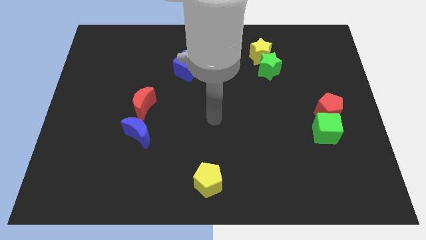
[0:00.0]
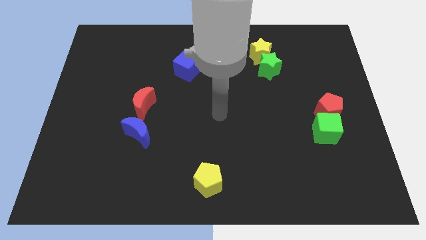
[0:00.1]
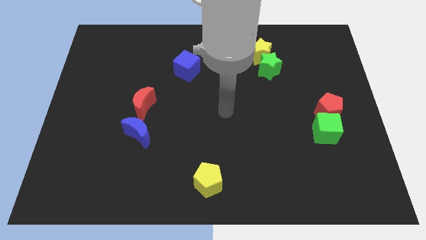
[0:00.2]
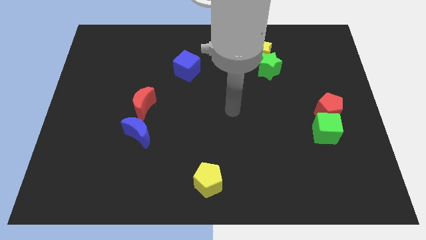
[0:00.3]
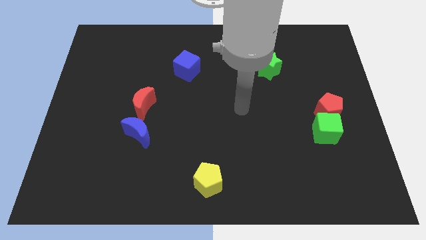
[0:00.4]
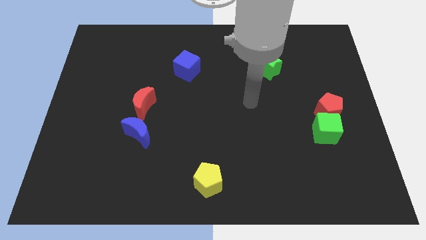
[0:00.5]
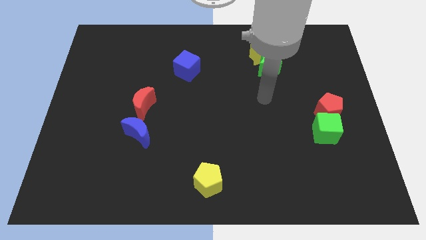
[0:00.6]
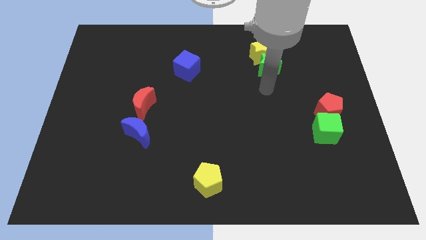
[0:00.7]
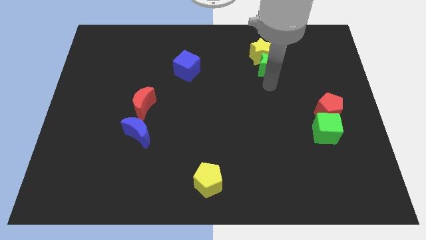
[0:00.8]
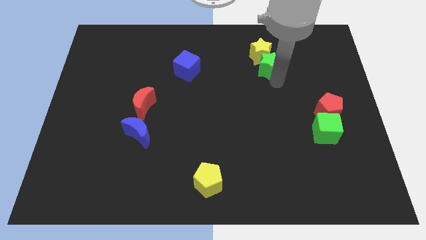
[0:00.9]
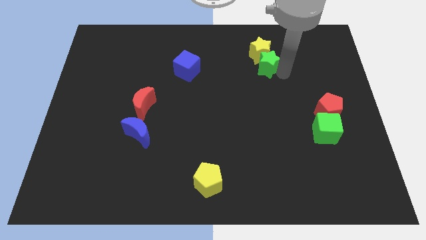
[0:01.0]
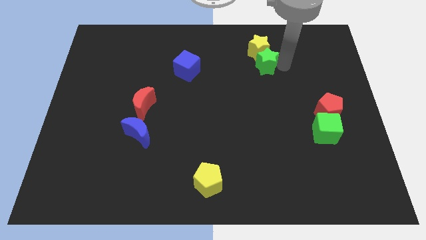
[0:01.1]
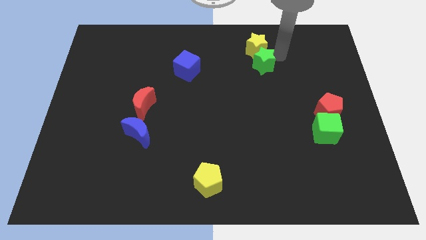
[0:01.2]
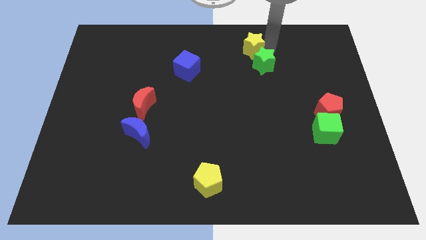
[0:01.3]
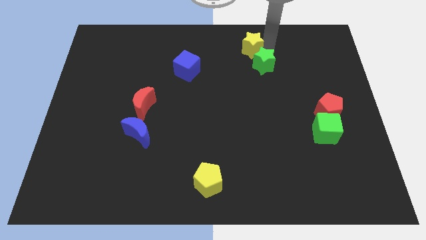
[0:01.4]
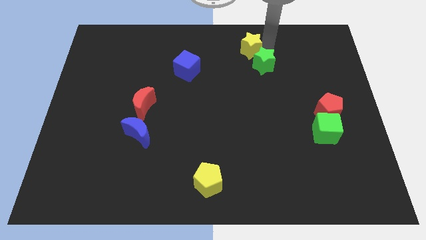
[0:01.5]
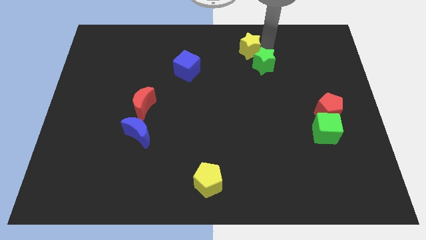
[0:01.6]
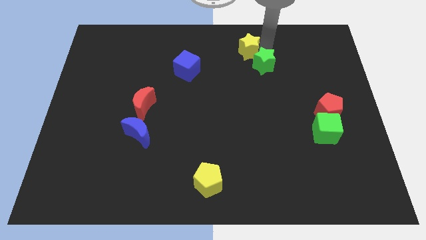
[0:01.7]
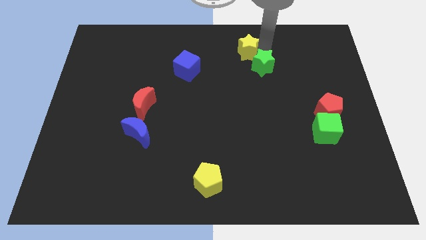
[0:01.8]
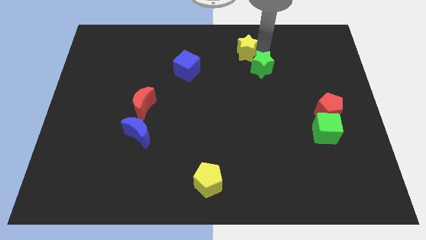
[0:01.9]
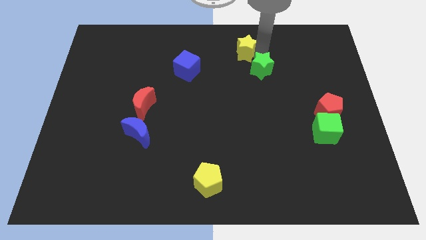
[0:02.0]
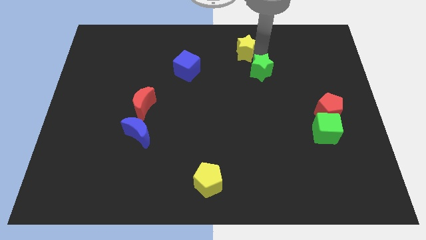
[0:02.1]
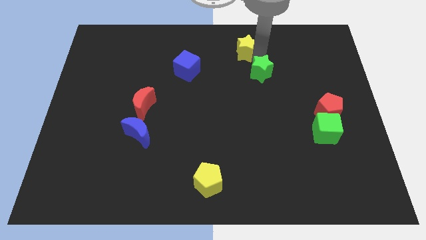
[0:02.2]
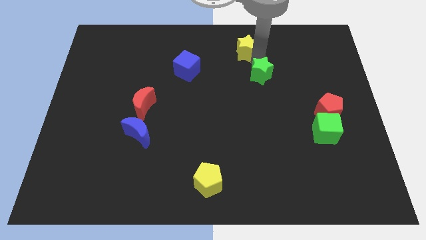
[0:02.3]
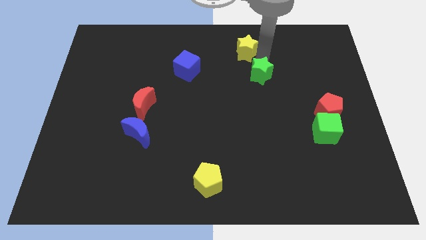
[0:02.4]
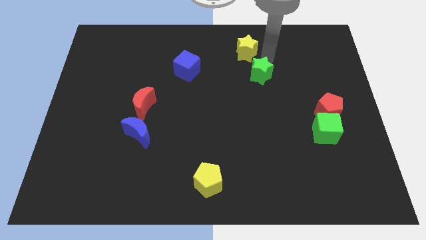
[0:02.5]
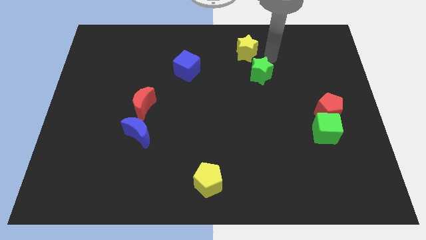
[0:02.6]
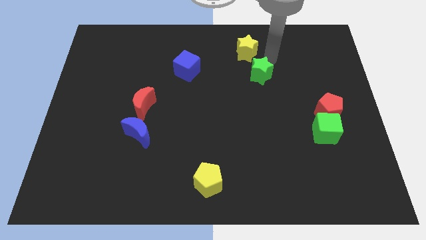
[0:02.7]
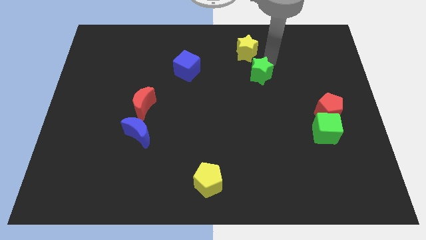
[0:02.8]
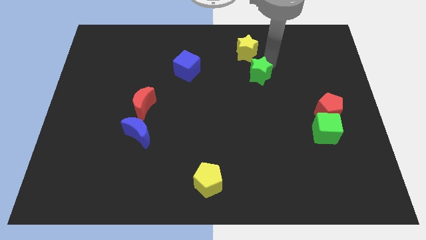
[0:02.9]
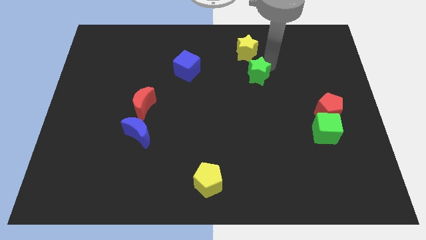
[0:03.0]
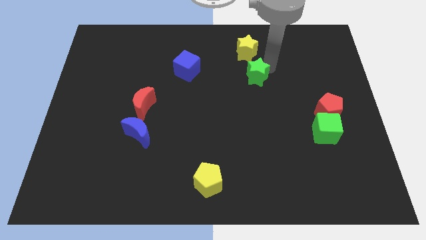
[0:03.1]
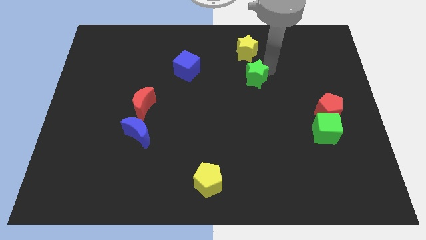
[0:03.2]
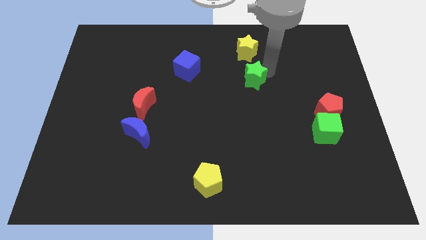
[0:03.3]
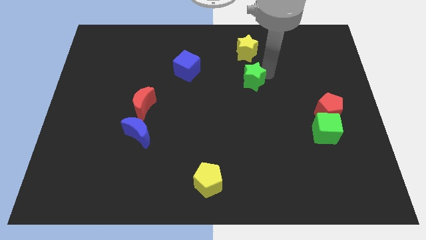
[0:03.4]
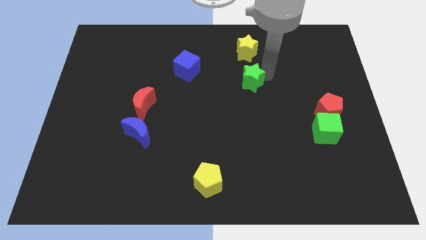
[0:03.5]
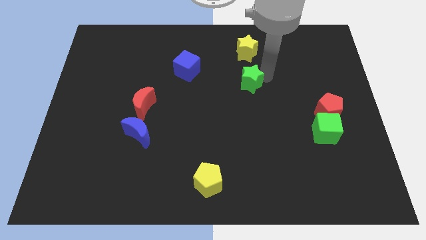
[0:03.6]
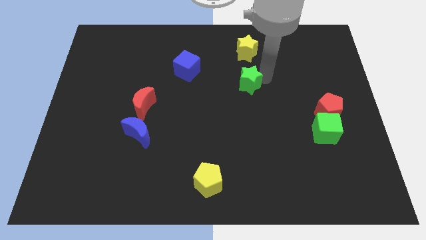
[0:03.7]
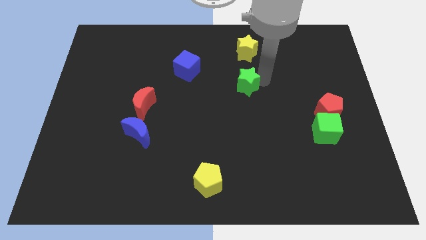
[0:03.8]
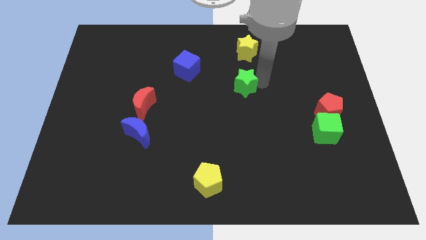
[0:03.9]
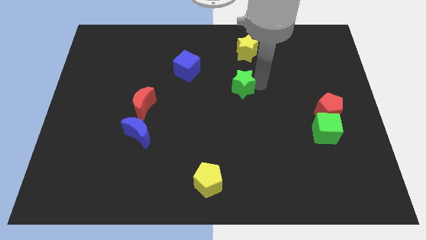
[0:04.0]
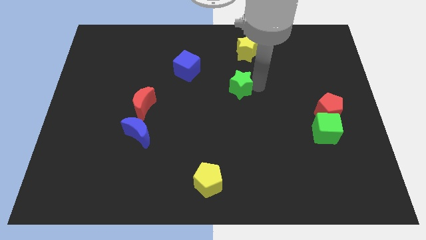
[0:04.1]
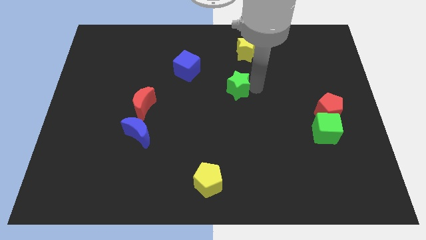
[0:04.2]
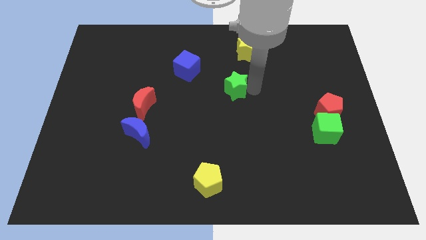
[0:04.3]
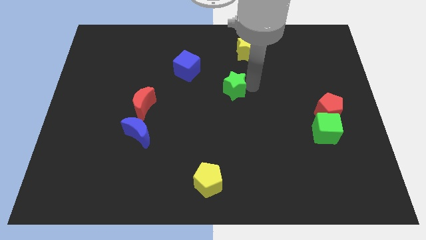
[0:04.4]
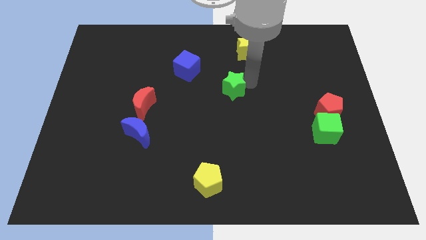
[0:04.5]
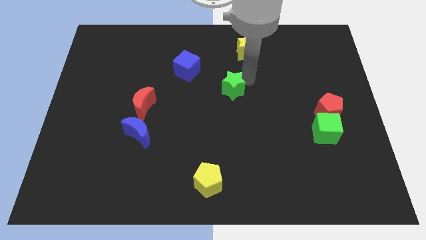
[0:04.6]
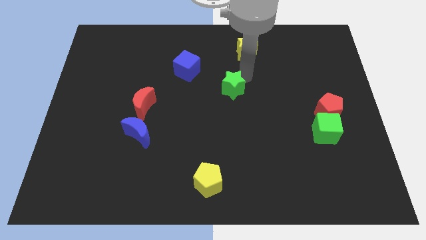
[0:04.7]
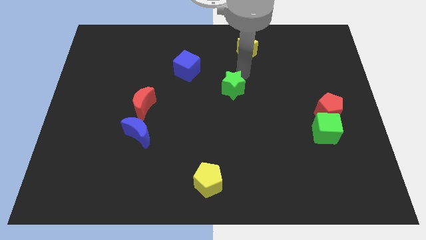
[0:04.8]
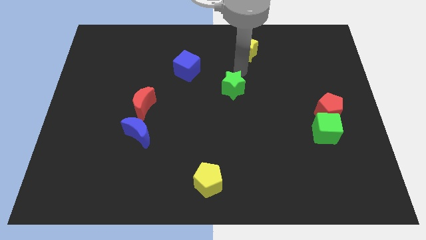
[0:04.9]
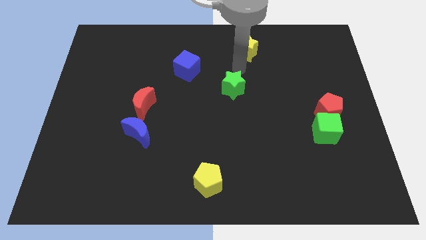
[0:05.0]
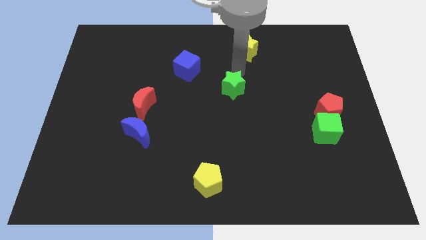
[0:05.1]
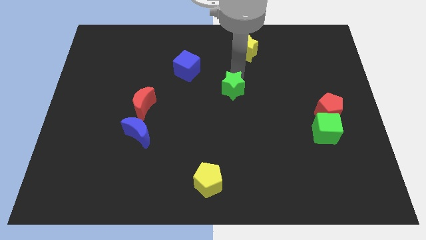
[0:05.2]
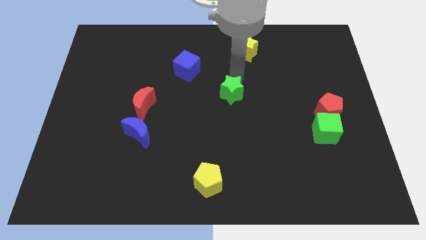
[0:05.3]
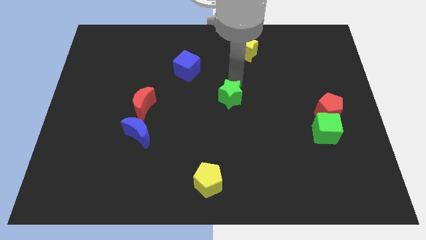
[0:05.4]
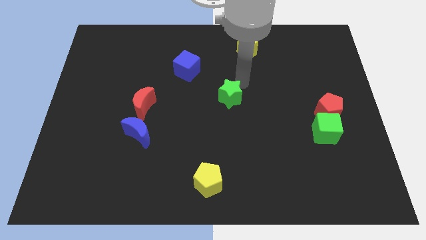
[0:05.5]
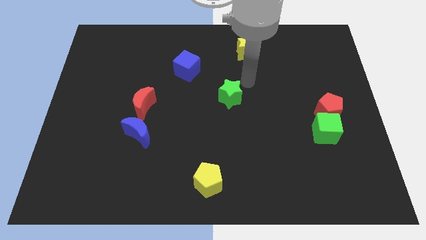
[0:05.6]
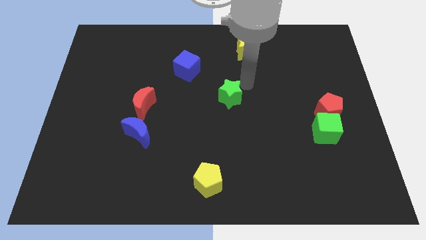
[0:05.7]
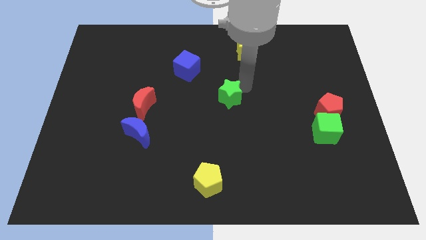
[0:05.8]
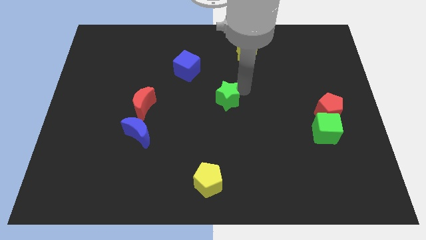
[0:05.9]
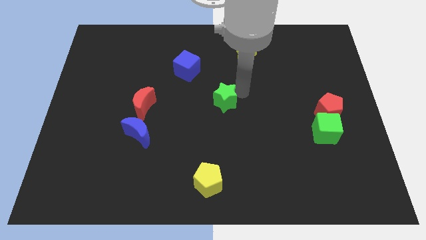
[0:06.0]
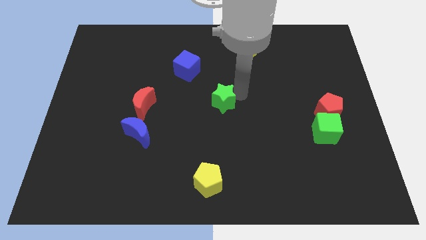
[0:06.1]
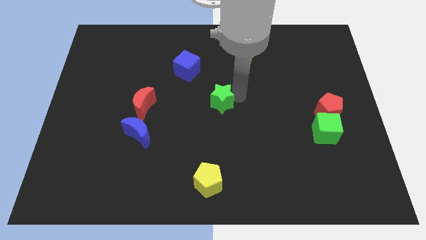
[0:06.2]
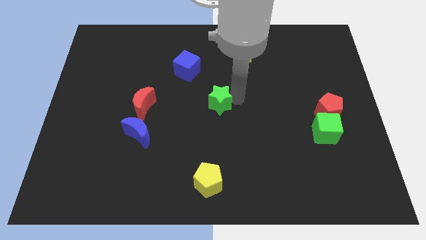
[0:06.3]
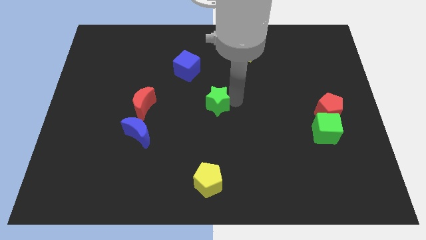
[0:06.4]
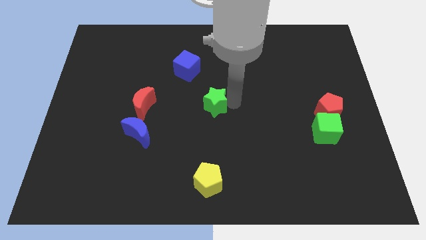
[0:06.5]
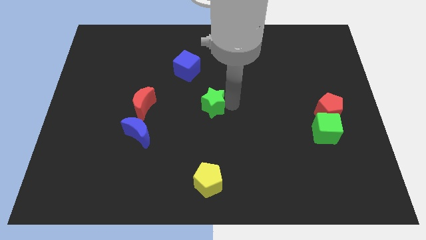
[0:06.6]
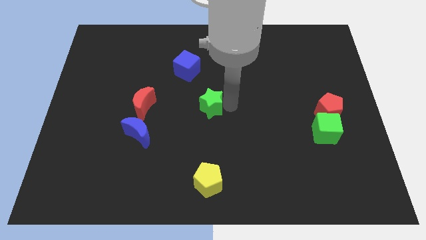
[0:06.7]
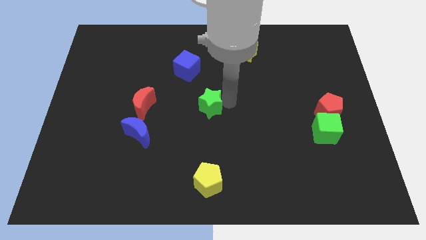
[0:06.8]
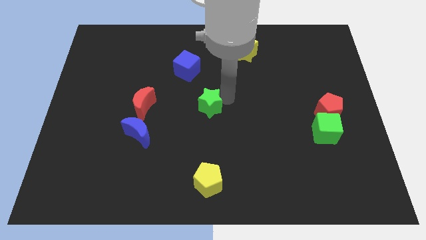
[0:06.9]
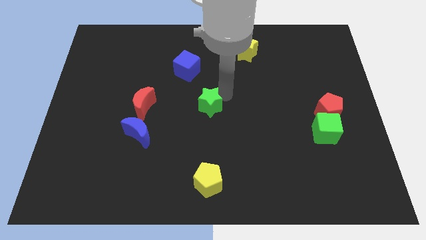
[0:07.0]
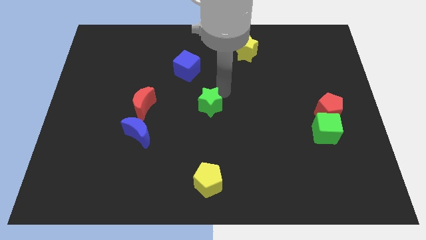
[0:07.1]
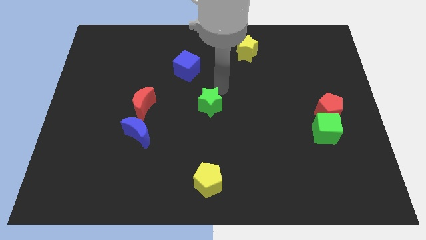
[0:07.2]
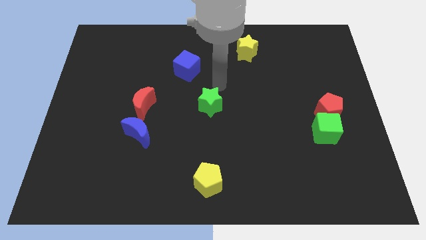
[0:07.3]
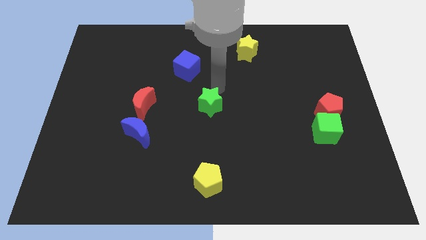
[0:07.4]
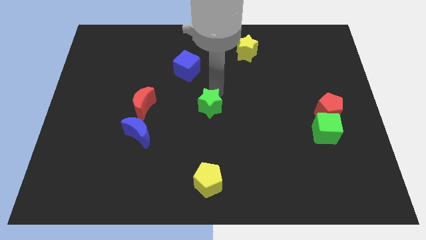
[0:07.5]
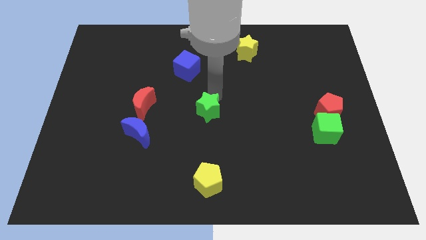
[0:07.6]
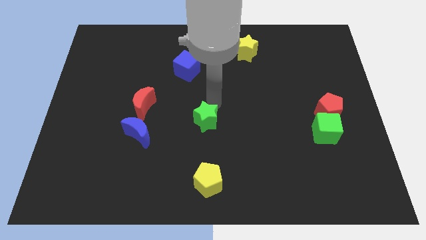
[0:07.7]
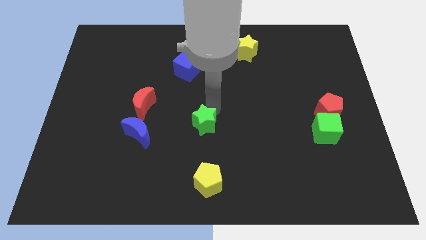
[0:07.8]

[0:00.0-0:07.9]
slide the green star to the right of the blue moon
